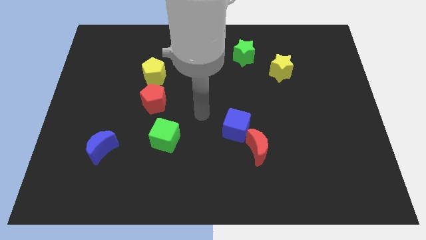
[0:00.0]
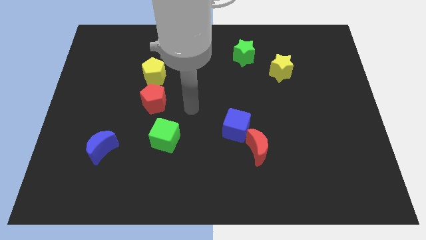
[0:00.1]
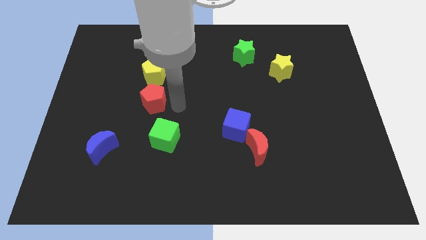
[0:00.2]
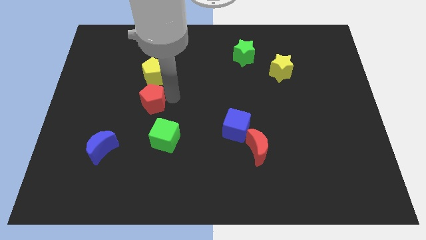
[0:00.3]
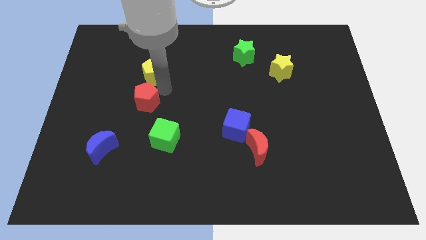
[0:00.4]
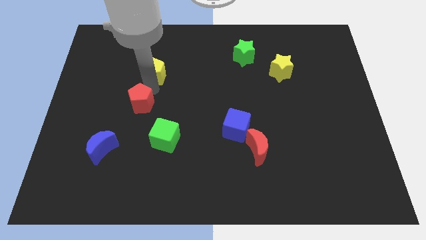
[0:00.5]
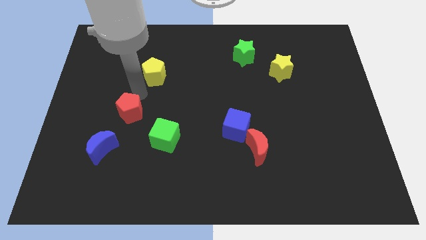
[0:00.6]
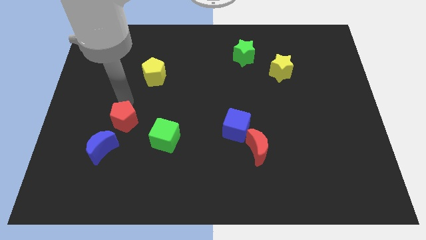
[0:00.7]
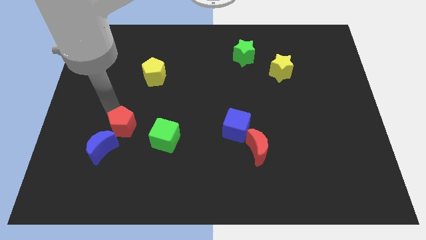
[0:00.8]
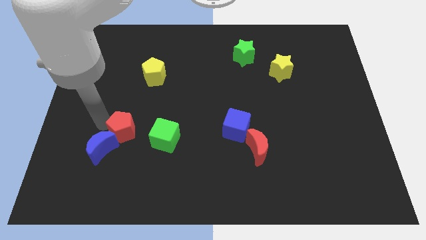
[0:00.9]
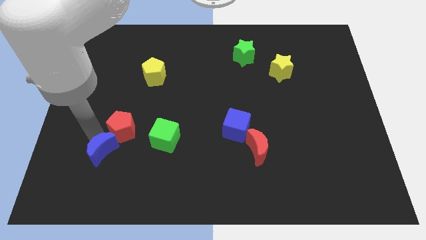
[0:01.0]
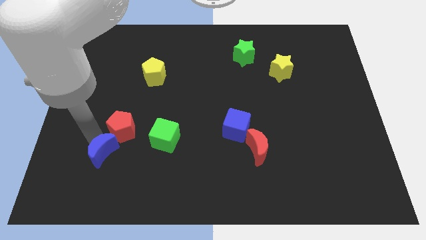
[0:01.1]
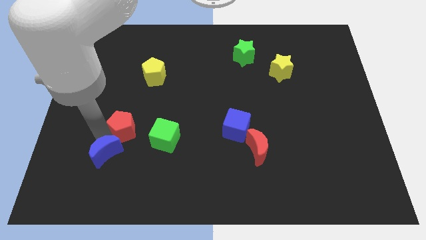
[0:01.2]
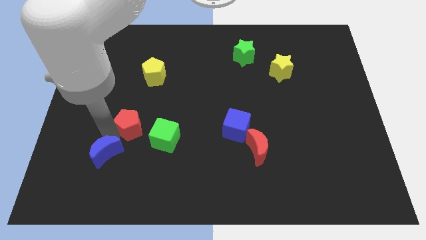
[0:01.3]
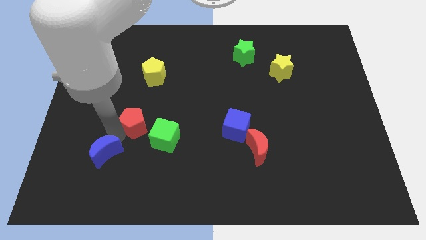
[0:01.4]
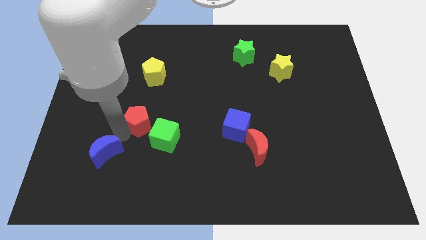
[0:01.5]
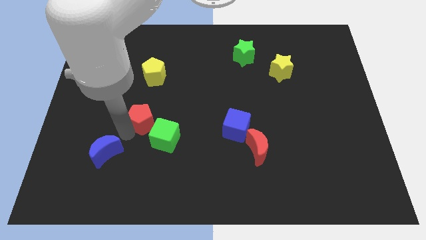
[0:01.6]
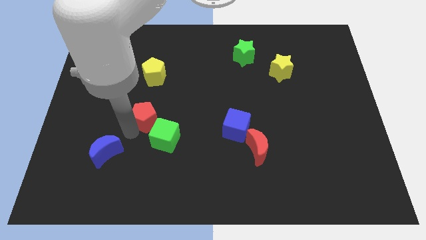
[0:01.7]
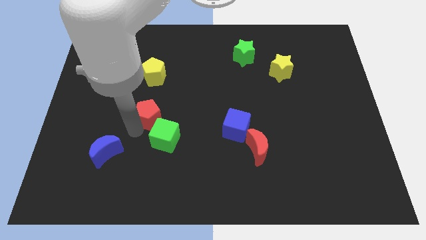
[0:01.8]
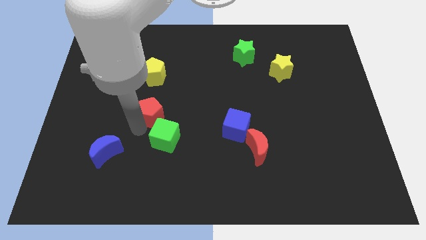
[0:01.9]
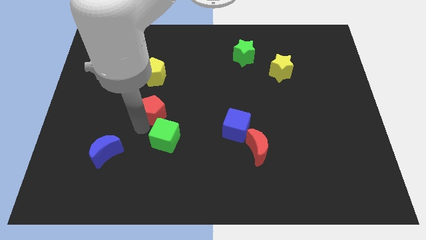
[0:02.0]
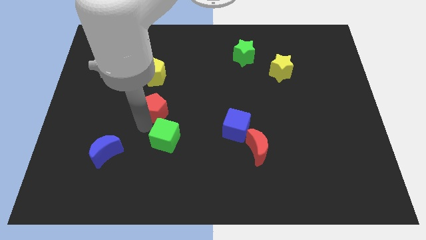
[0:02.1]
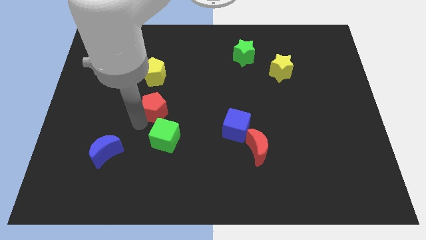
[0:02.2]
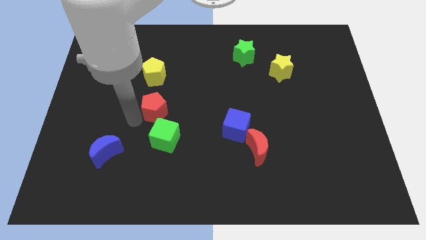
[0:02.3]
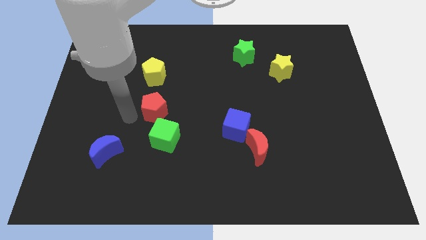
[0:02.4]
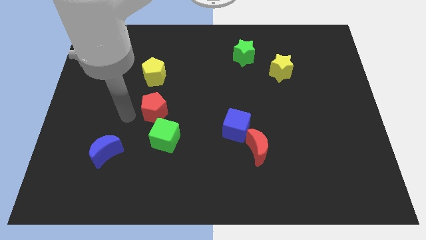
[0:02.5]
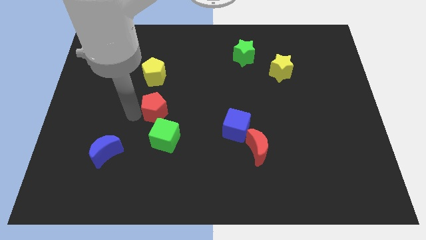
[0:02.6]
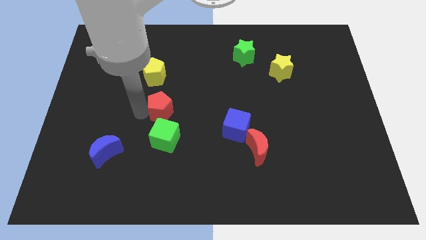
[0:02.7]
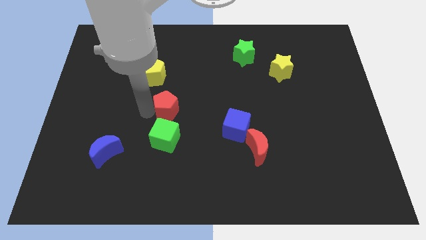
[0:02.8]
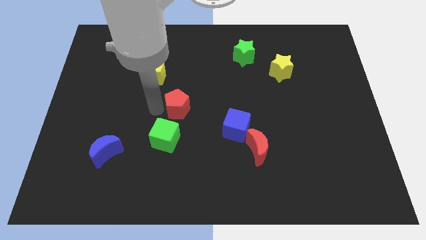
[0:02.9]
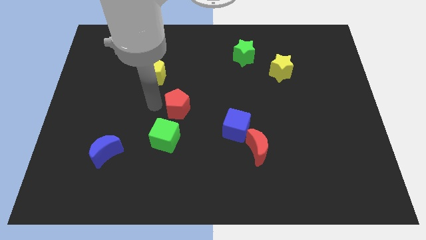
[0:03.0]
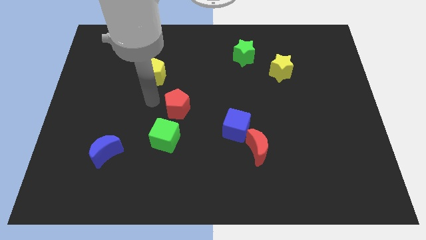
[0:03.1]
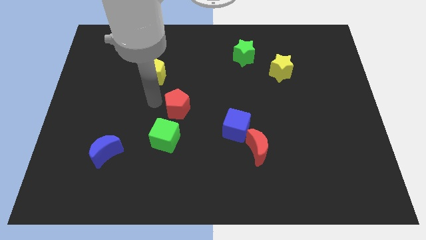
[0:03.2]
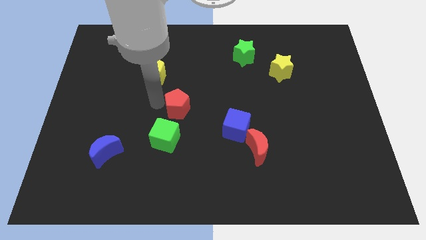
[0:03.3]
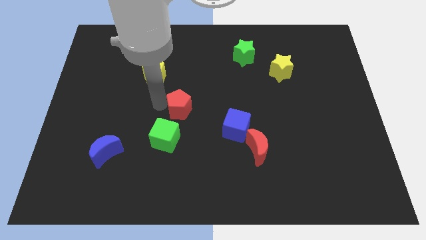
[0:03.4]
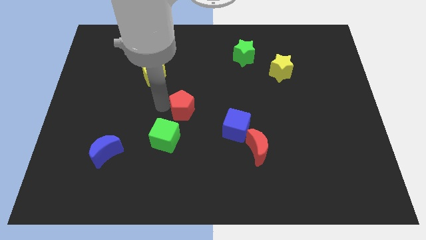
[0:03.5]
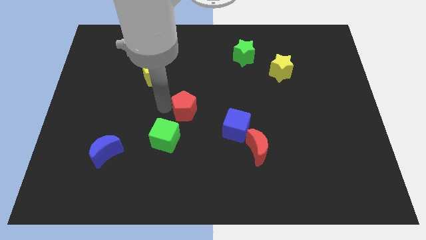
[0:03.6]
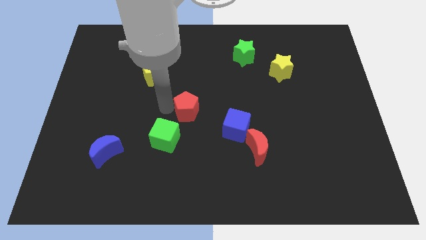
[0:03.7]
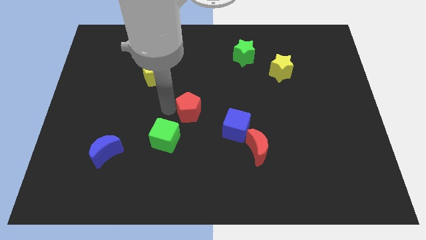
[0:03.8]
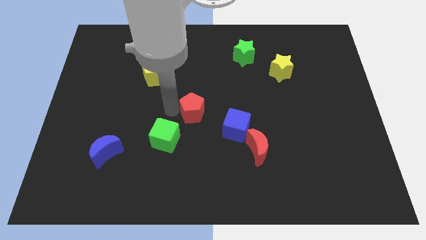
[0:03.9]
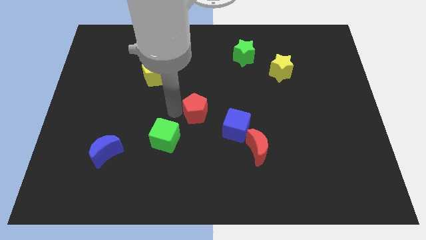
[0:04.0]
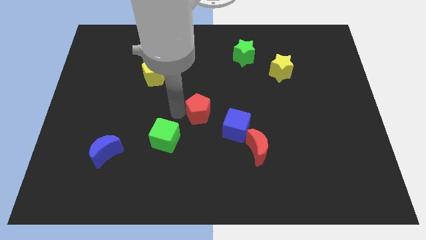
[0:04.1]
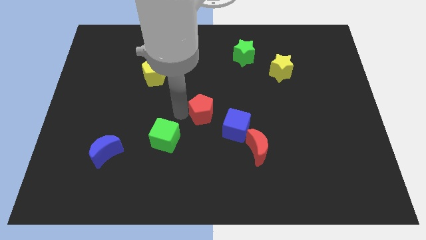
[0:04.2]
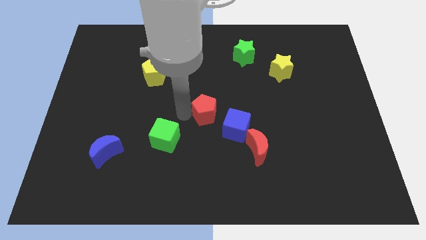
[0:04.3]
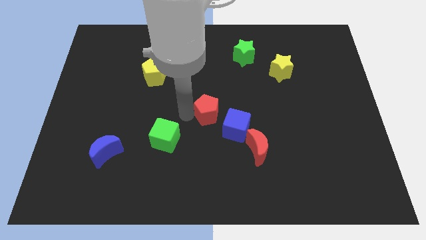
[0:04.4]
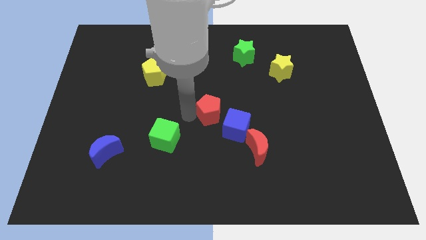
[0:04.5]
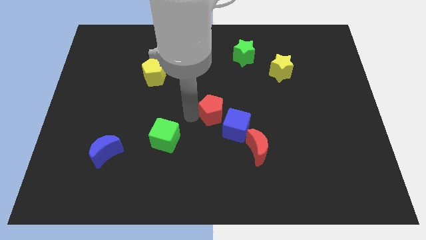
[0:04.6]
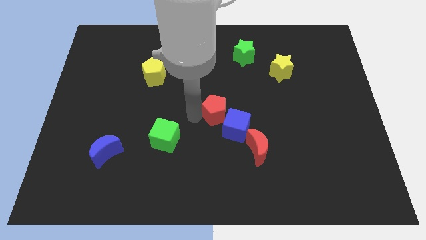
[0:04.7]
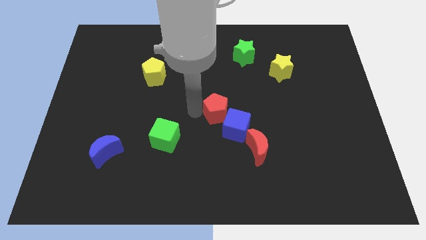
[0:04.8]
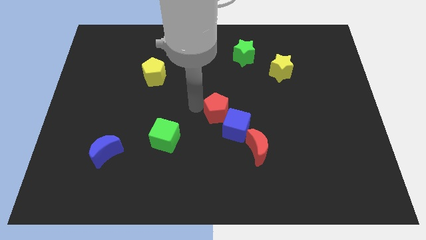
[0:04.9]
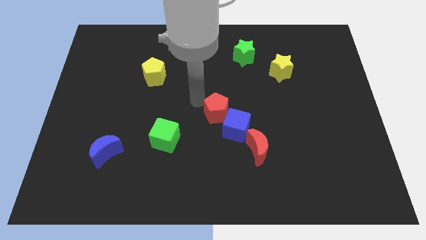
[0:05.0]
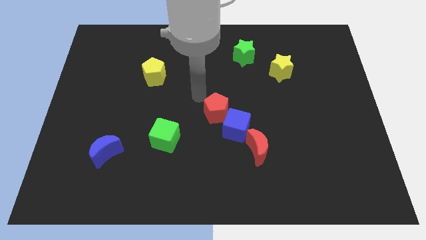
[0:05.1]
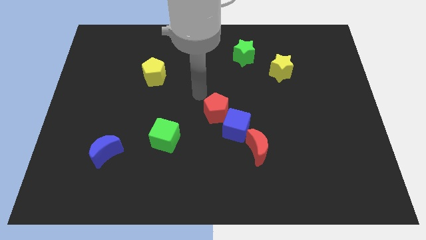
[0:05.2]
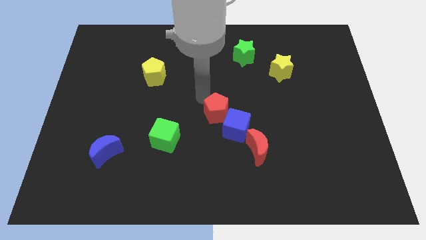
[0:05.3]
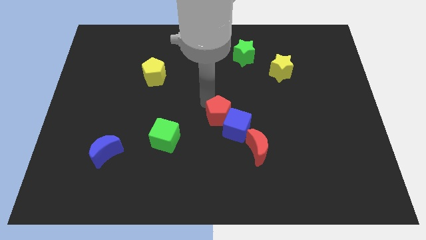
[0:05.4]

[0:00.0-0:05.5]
push the red pentagon to the top left of the red moon

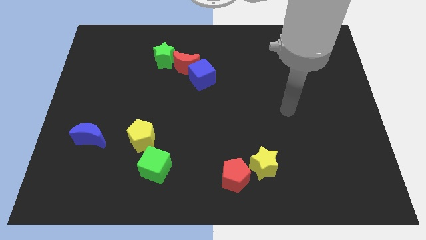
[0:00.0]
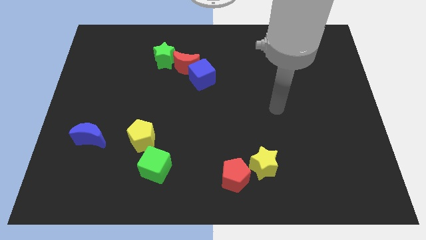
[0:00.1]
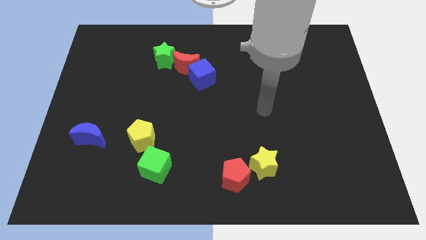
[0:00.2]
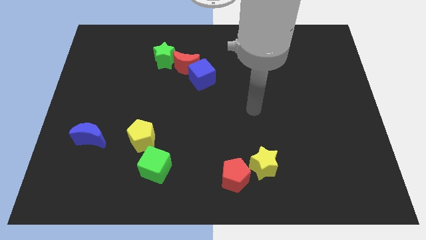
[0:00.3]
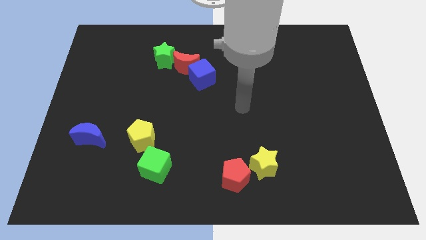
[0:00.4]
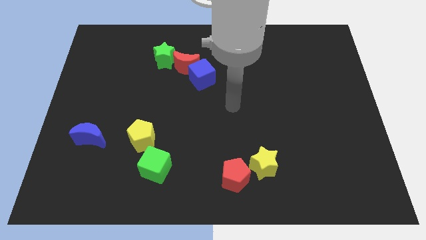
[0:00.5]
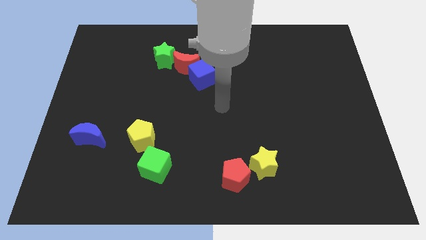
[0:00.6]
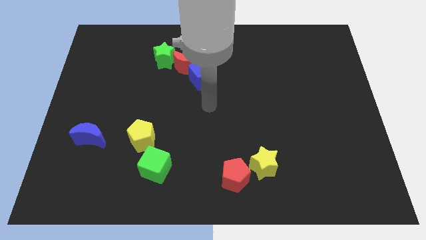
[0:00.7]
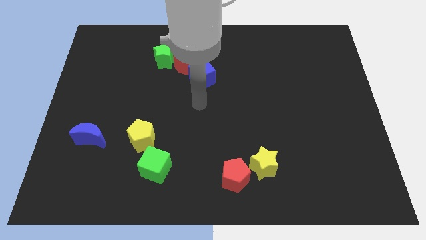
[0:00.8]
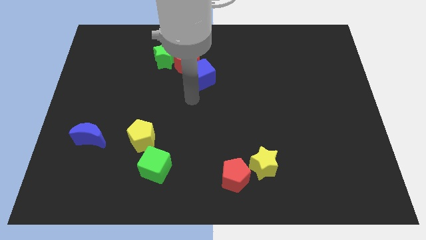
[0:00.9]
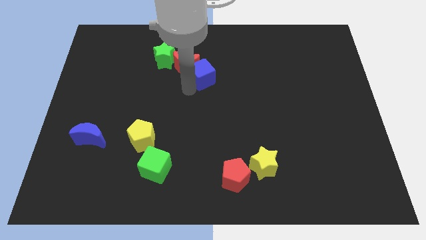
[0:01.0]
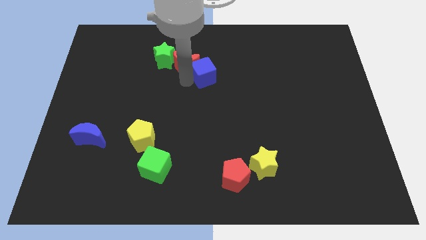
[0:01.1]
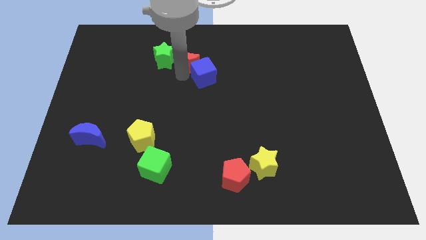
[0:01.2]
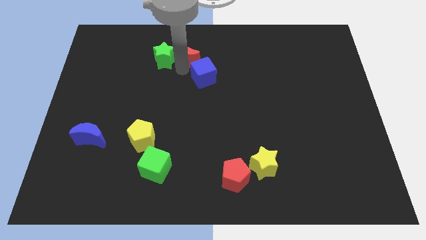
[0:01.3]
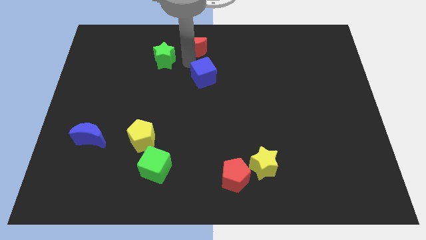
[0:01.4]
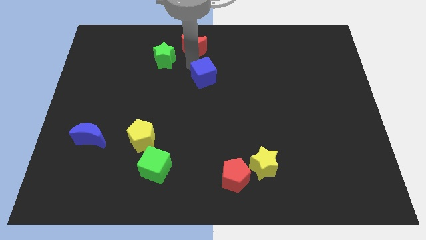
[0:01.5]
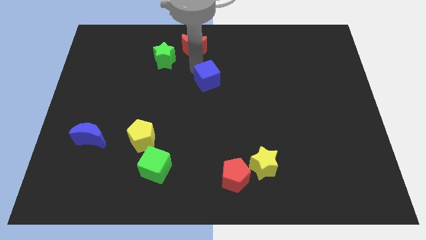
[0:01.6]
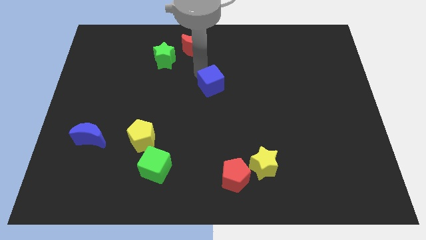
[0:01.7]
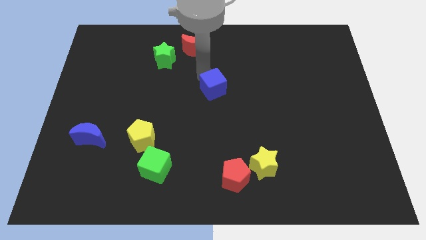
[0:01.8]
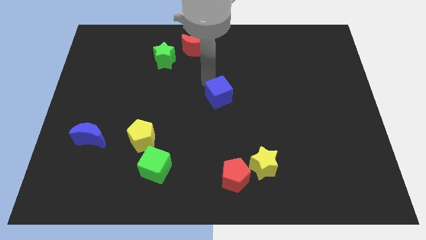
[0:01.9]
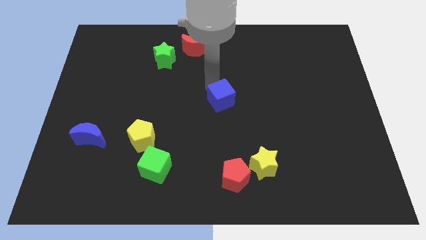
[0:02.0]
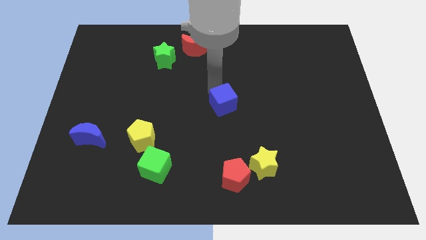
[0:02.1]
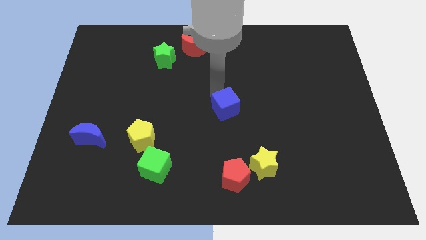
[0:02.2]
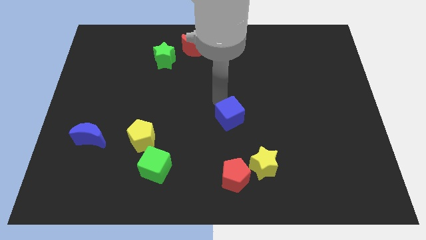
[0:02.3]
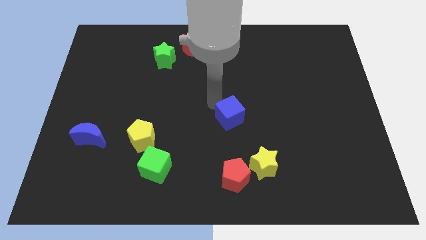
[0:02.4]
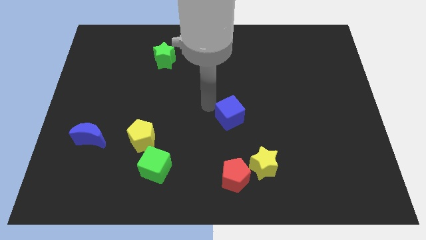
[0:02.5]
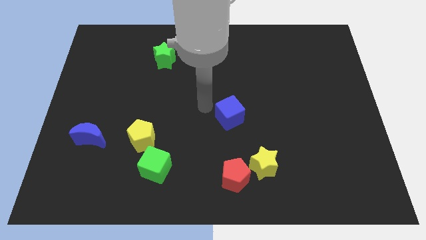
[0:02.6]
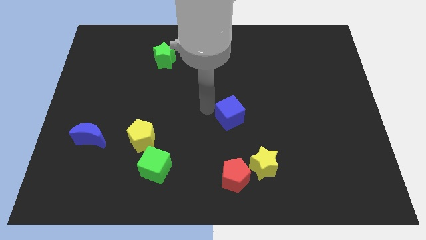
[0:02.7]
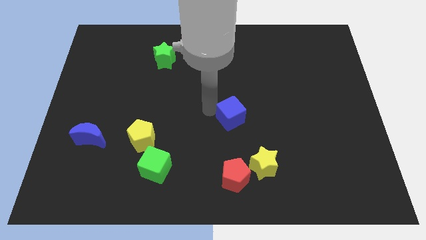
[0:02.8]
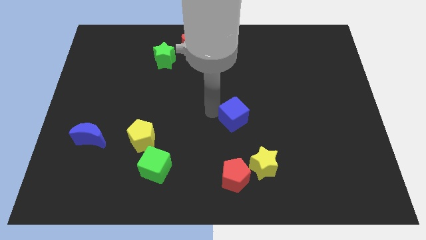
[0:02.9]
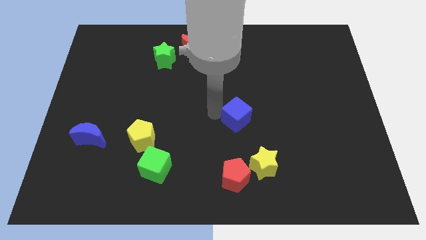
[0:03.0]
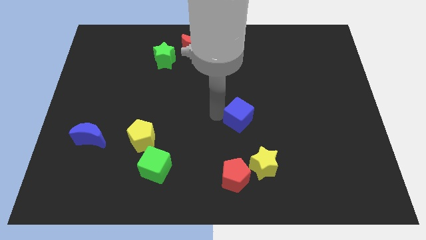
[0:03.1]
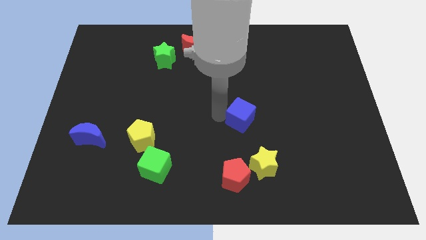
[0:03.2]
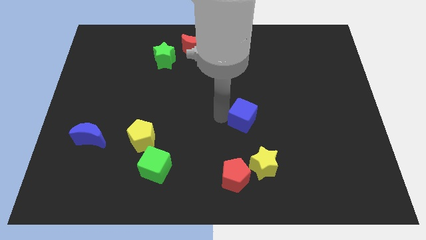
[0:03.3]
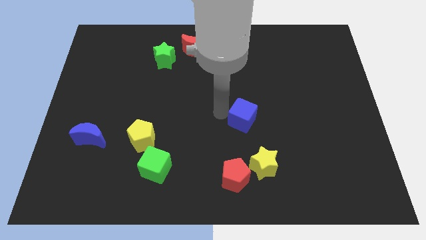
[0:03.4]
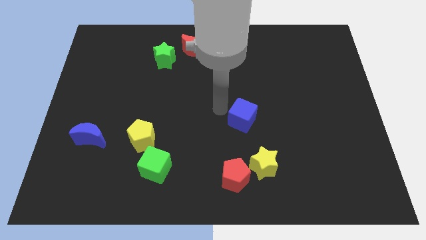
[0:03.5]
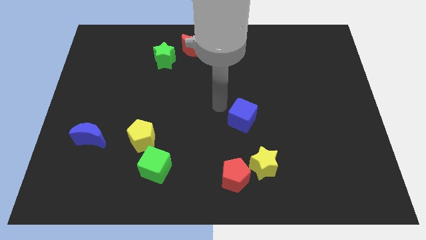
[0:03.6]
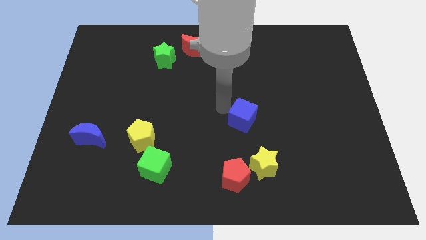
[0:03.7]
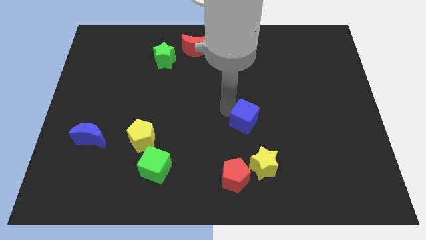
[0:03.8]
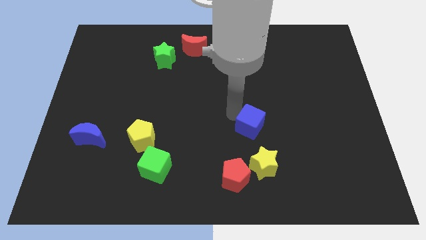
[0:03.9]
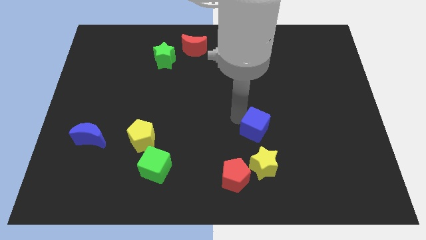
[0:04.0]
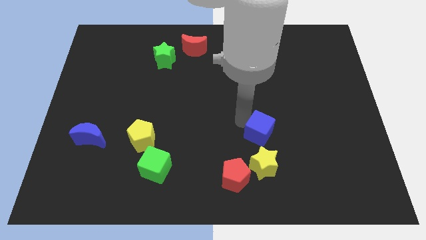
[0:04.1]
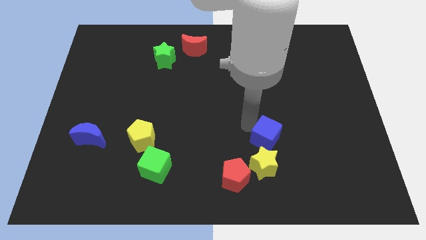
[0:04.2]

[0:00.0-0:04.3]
put the blue cube to the top right of the yellow star
